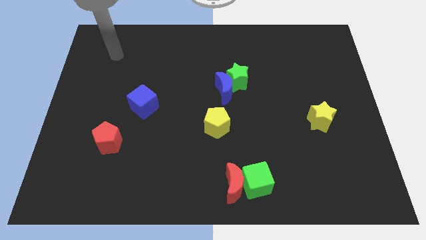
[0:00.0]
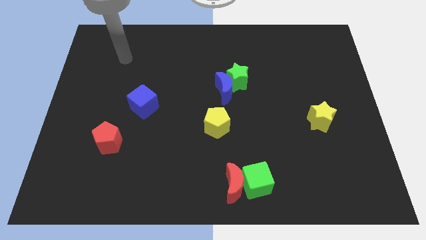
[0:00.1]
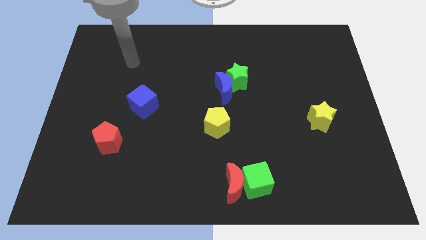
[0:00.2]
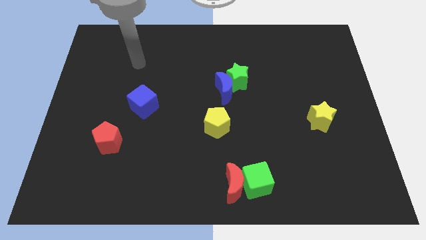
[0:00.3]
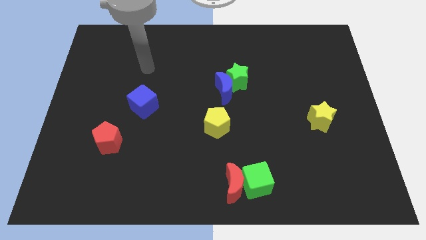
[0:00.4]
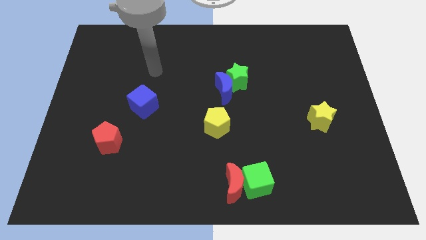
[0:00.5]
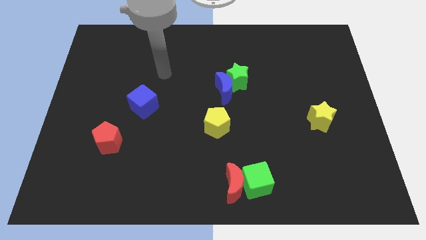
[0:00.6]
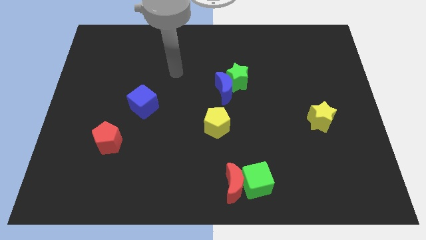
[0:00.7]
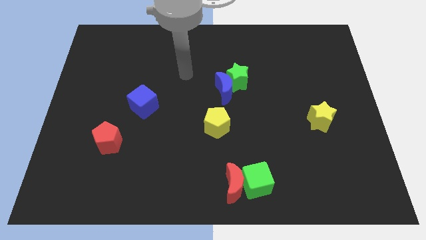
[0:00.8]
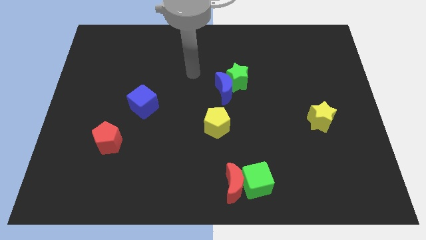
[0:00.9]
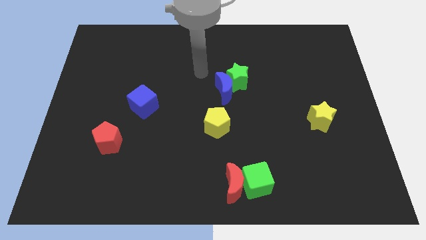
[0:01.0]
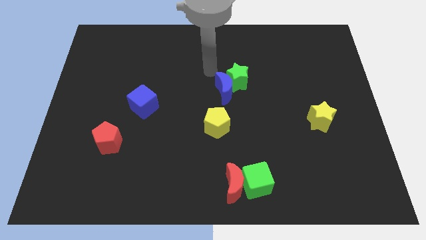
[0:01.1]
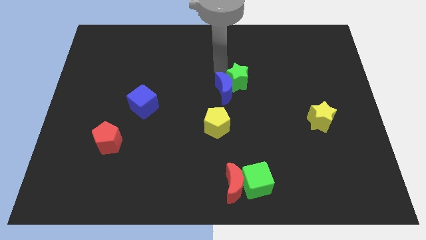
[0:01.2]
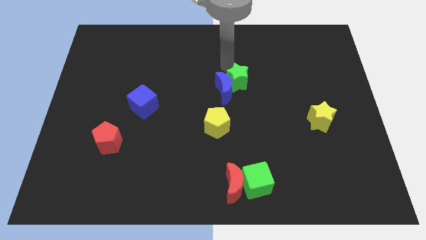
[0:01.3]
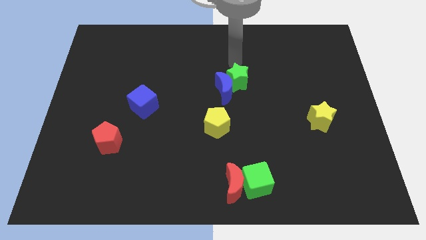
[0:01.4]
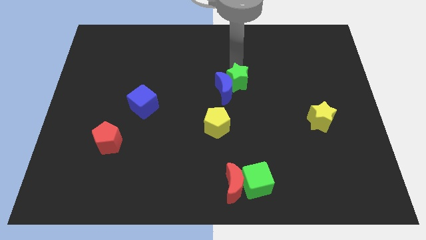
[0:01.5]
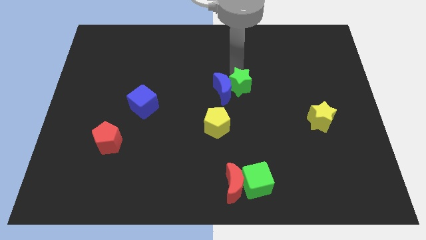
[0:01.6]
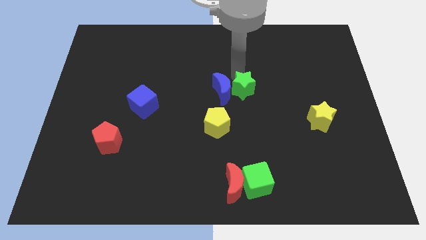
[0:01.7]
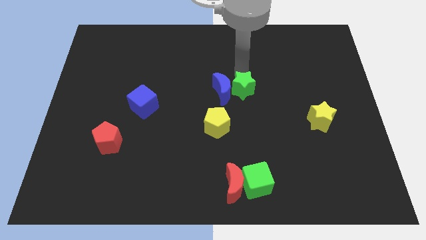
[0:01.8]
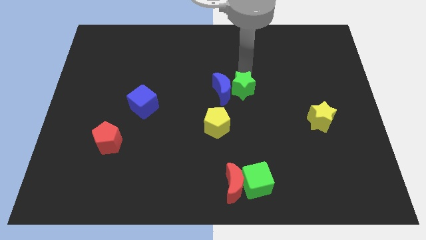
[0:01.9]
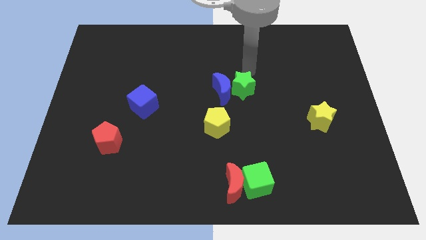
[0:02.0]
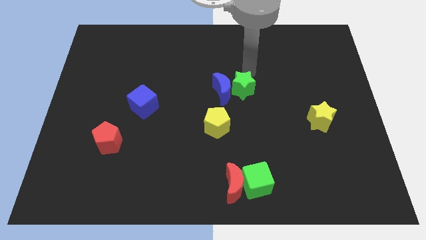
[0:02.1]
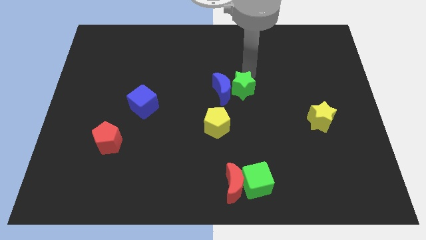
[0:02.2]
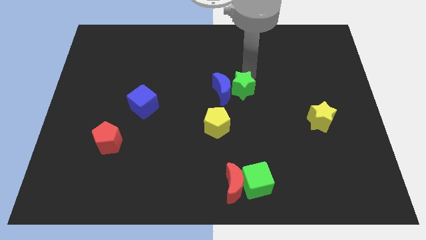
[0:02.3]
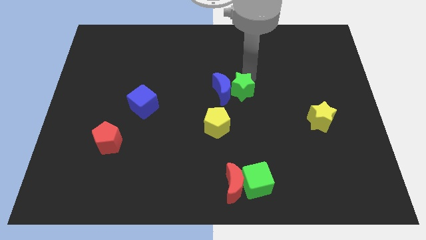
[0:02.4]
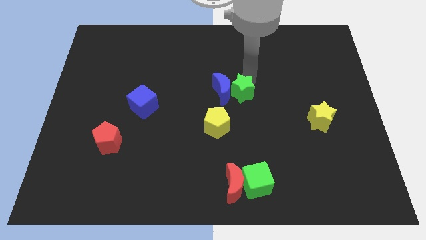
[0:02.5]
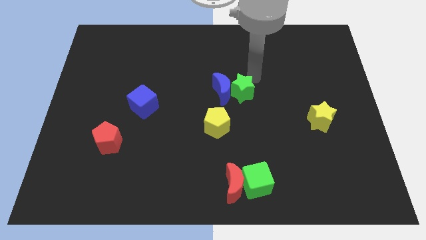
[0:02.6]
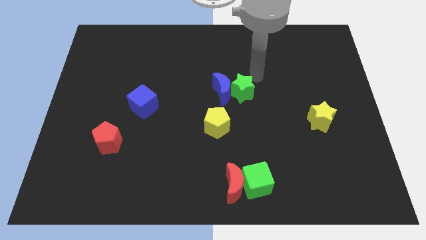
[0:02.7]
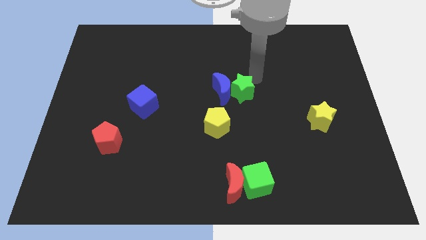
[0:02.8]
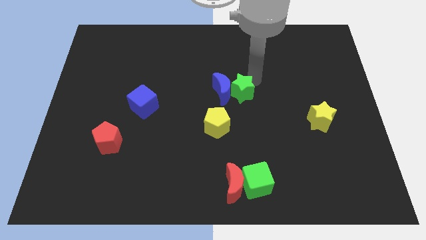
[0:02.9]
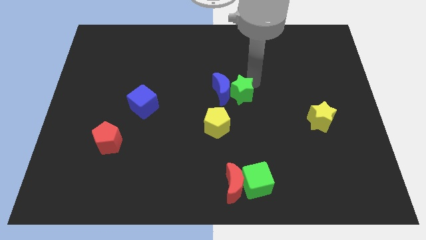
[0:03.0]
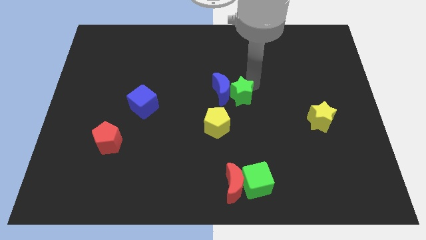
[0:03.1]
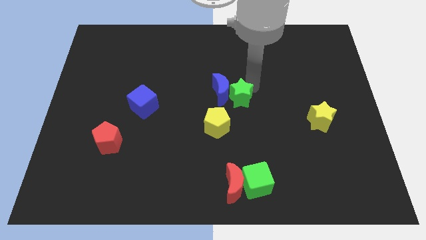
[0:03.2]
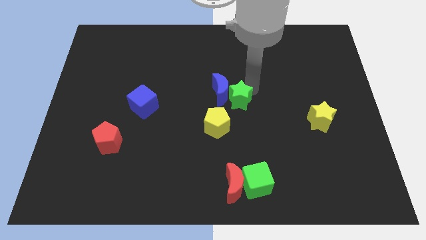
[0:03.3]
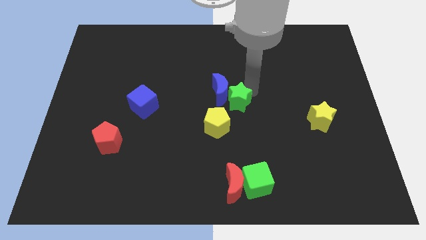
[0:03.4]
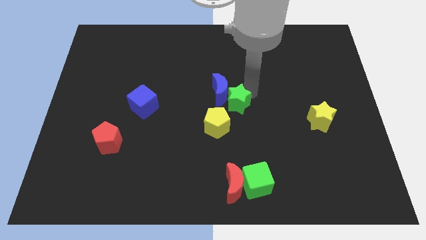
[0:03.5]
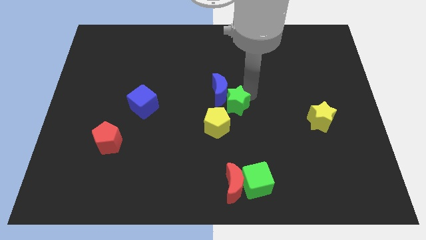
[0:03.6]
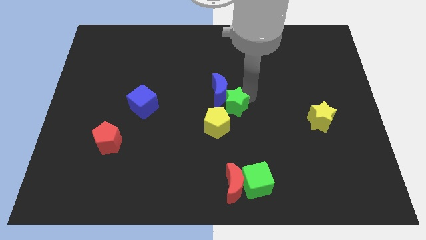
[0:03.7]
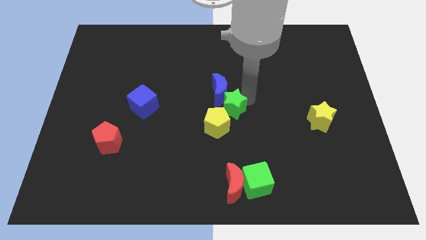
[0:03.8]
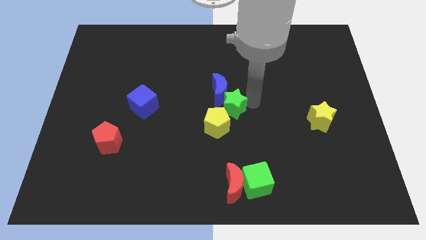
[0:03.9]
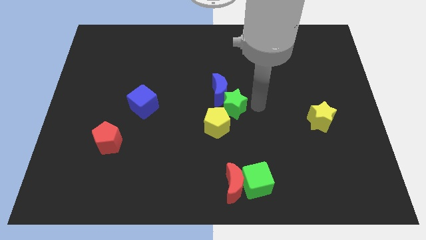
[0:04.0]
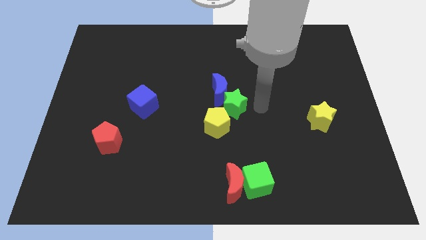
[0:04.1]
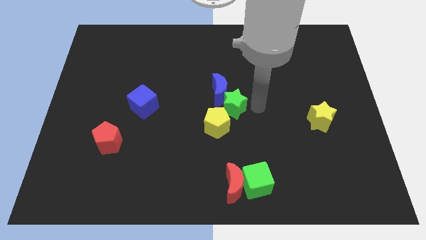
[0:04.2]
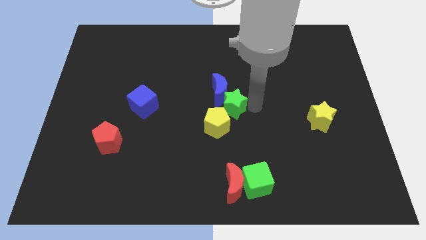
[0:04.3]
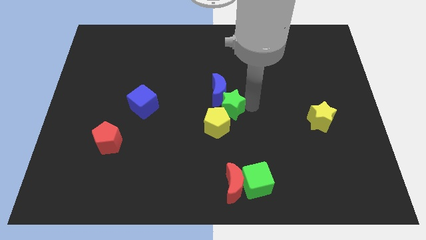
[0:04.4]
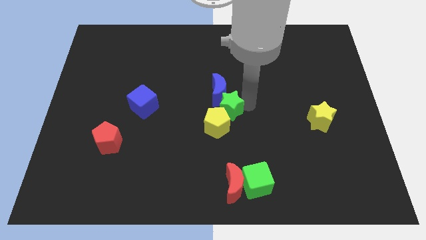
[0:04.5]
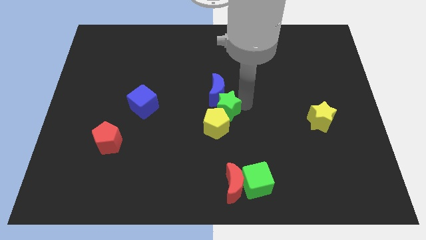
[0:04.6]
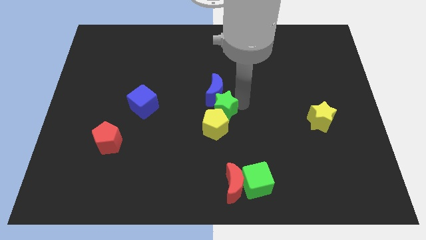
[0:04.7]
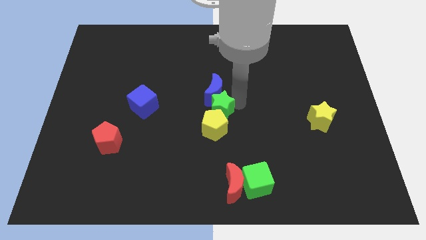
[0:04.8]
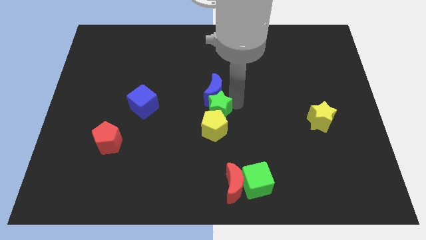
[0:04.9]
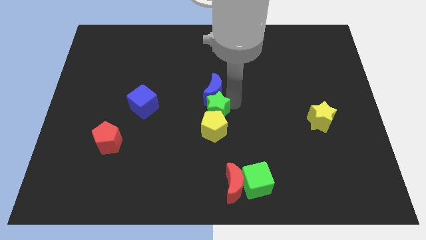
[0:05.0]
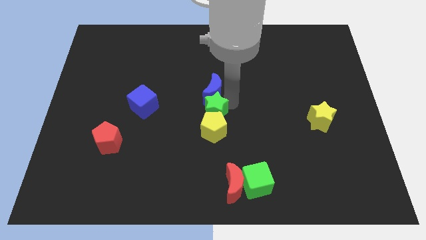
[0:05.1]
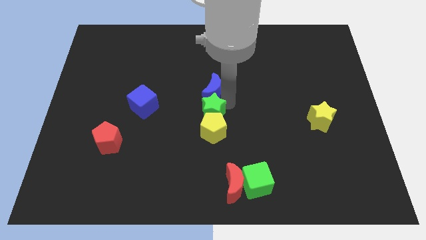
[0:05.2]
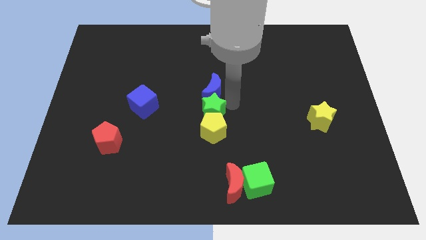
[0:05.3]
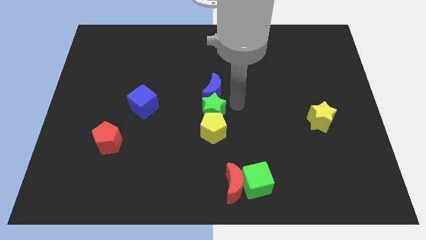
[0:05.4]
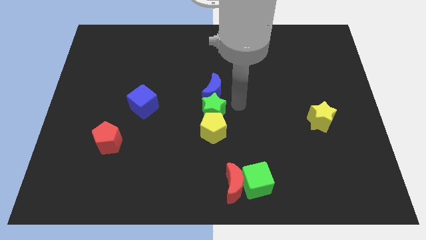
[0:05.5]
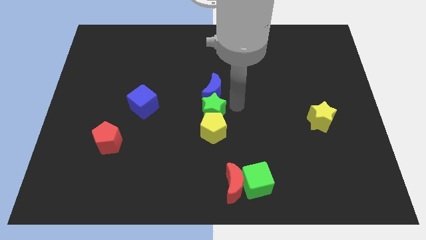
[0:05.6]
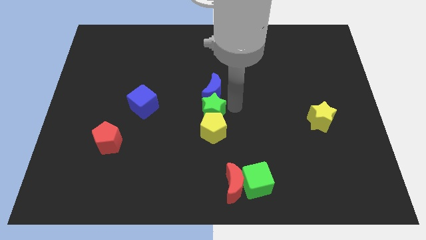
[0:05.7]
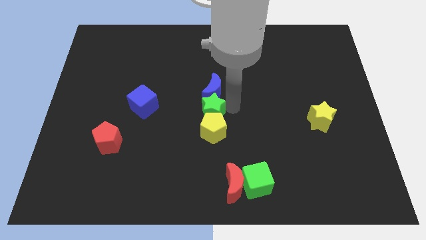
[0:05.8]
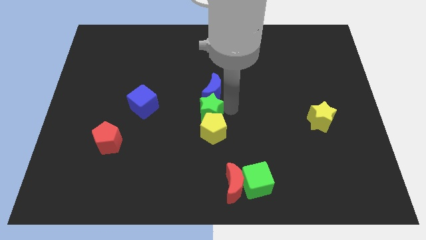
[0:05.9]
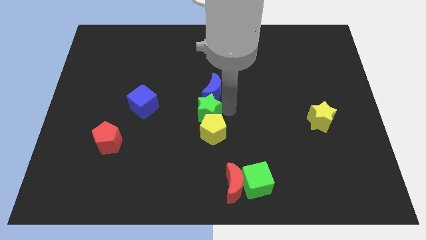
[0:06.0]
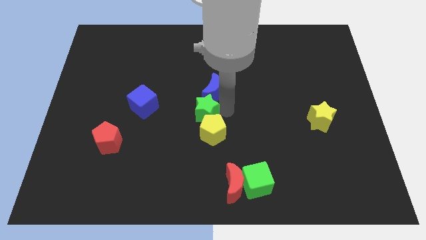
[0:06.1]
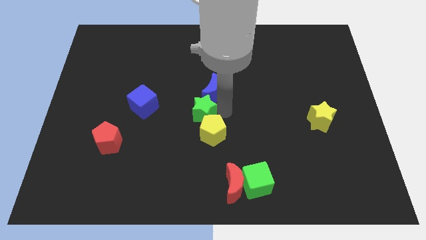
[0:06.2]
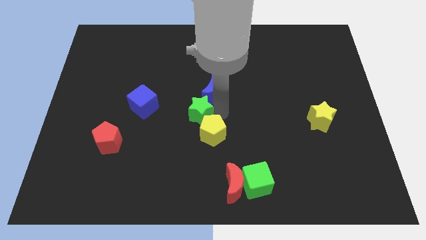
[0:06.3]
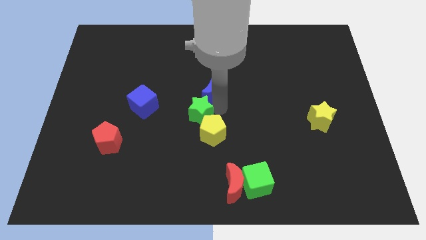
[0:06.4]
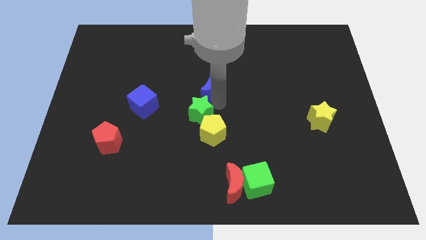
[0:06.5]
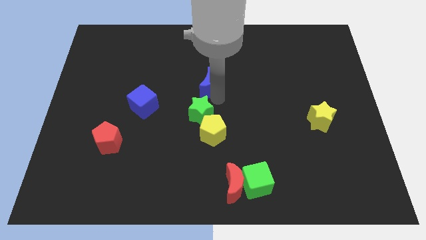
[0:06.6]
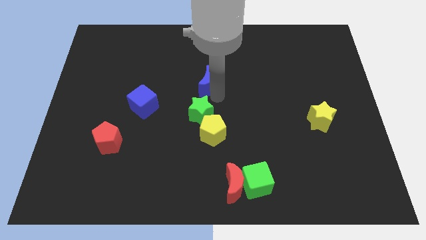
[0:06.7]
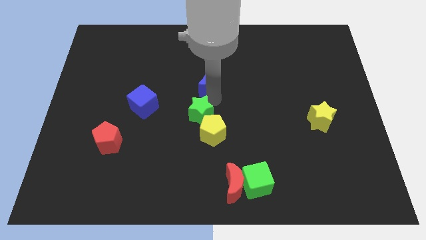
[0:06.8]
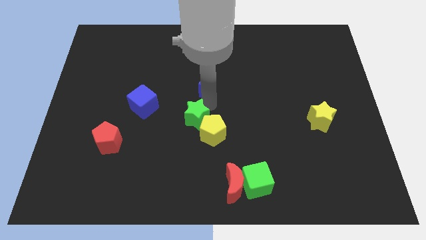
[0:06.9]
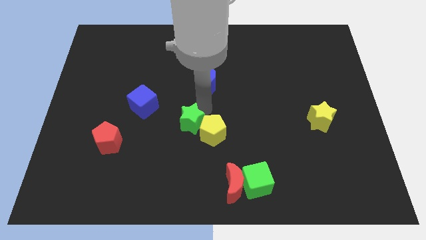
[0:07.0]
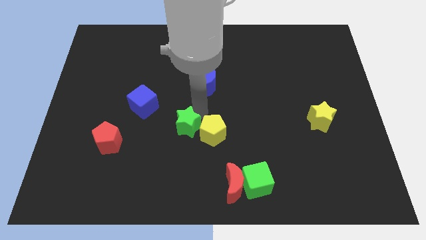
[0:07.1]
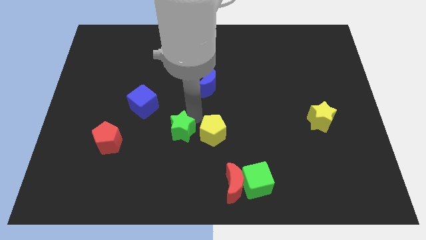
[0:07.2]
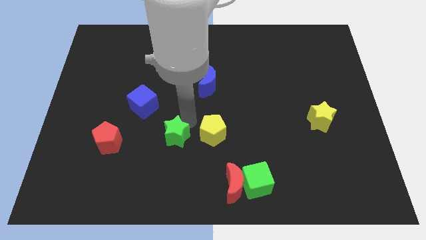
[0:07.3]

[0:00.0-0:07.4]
move the green star down and left diagonally

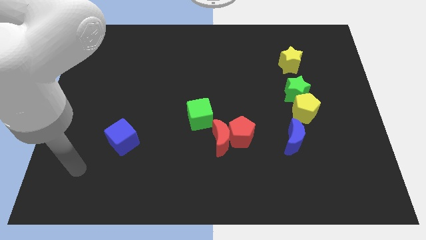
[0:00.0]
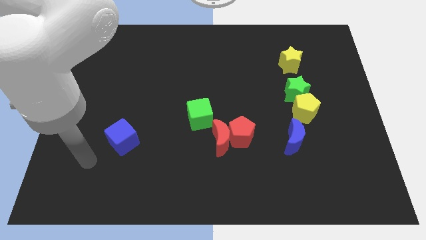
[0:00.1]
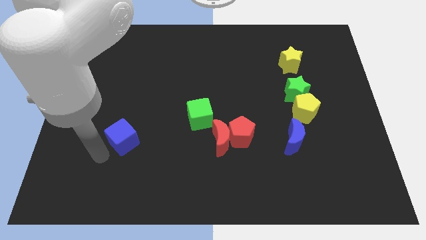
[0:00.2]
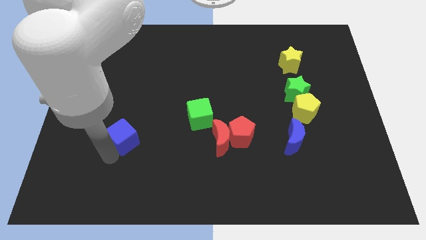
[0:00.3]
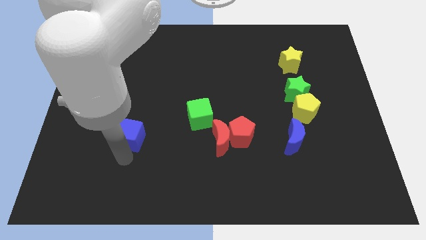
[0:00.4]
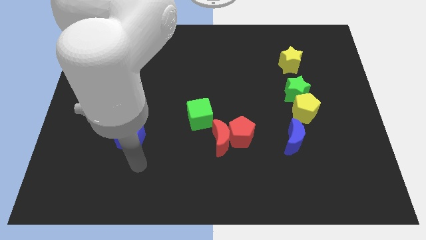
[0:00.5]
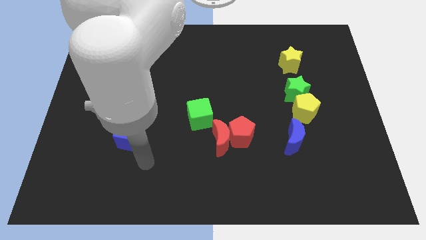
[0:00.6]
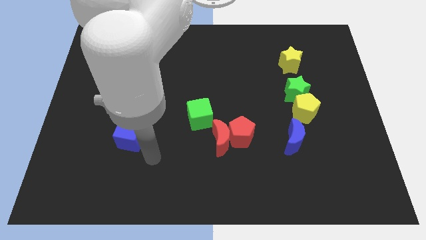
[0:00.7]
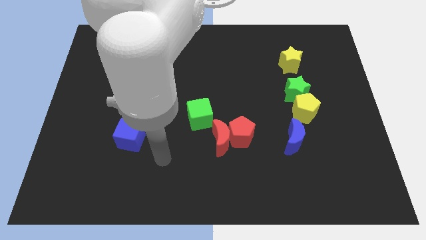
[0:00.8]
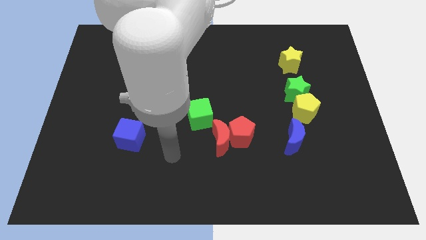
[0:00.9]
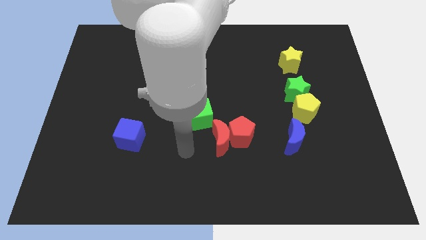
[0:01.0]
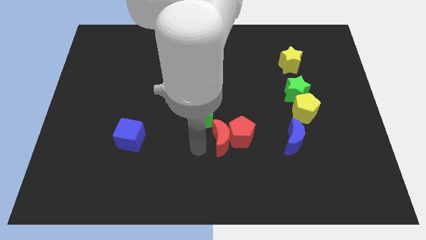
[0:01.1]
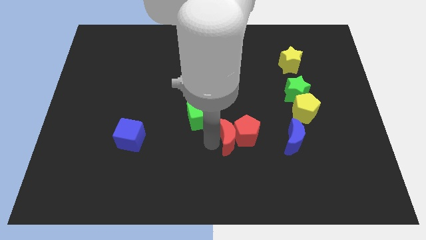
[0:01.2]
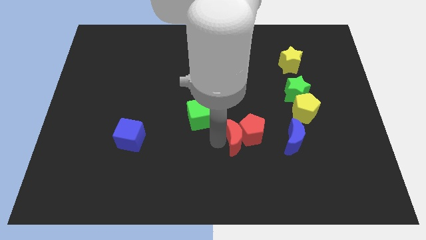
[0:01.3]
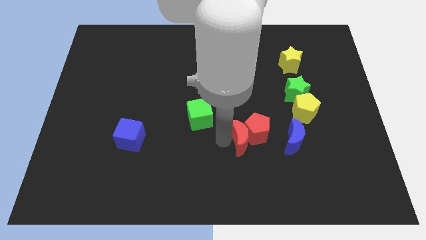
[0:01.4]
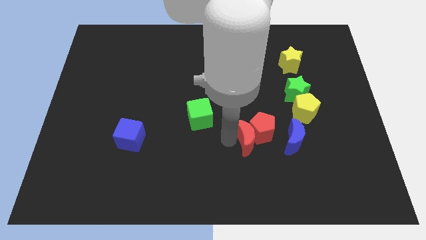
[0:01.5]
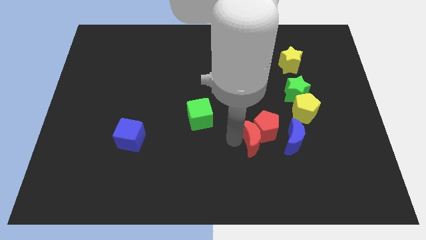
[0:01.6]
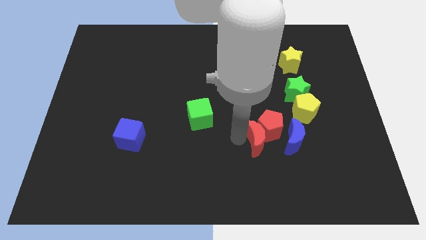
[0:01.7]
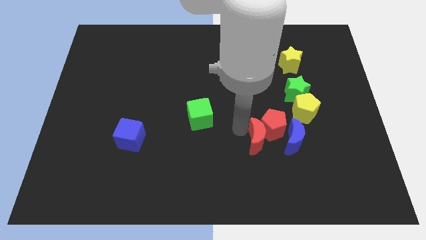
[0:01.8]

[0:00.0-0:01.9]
push the red pentagon right somewhat
